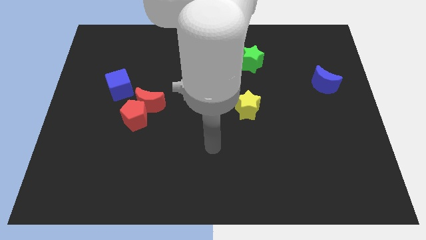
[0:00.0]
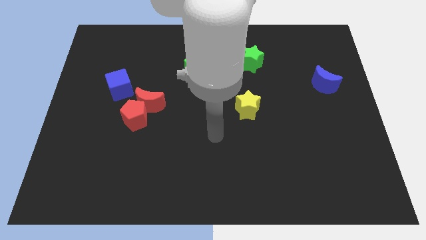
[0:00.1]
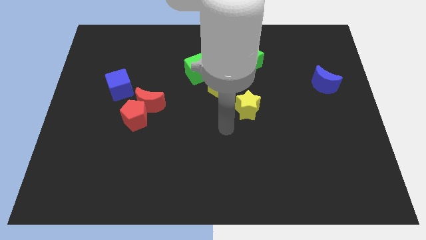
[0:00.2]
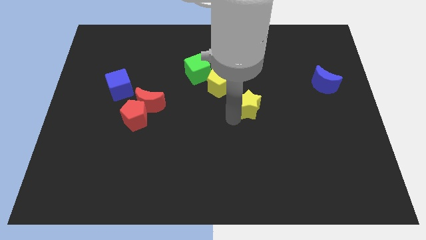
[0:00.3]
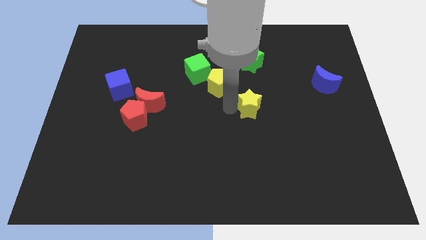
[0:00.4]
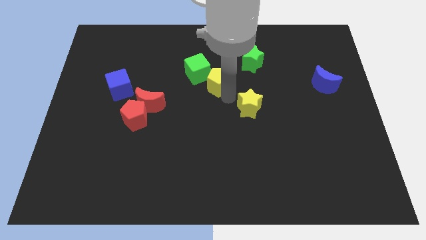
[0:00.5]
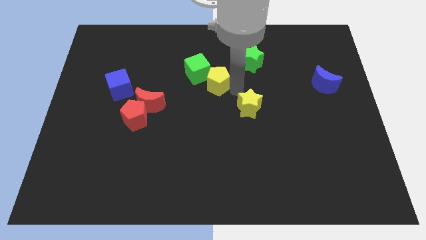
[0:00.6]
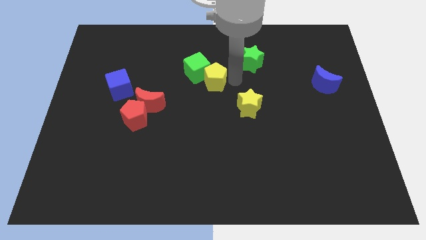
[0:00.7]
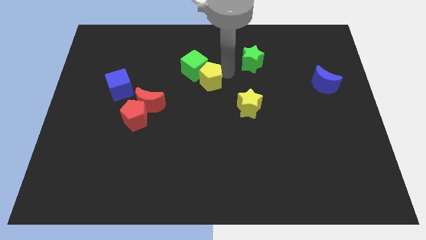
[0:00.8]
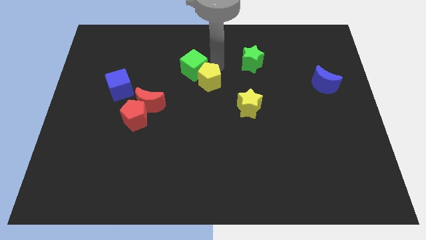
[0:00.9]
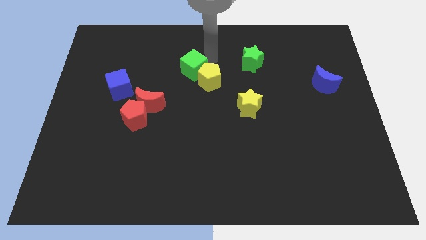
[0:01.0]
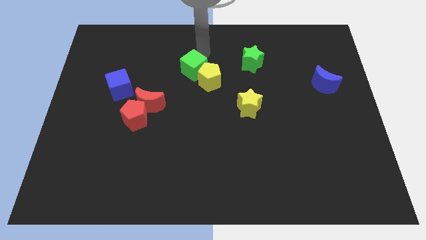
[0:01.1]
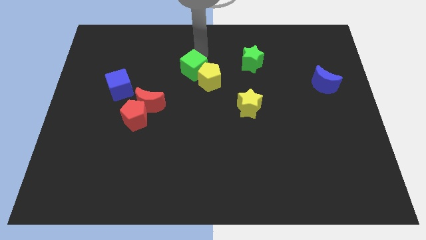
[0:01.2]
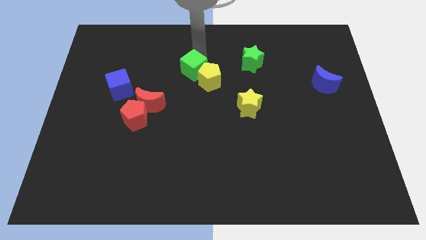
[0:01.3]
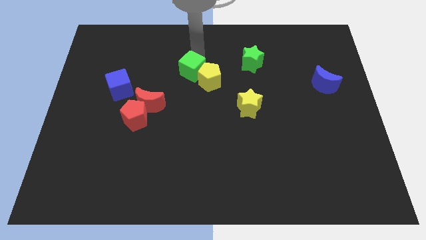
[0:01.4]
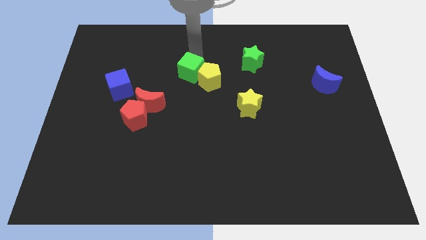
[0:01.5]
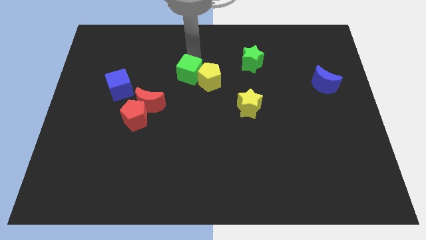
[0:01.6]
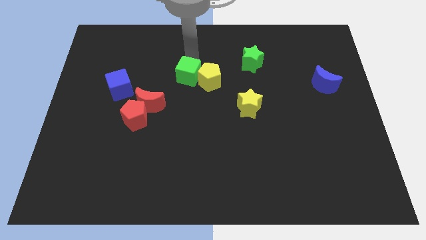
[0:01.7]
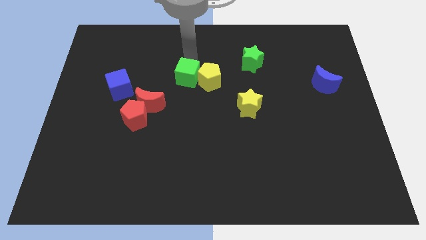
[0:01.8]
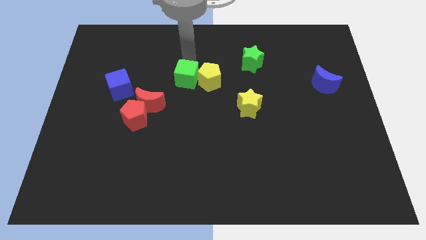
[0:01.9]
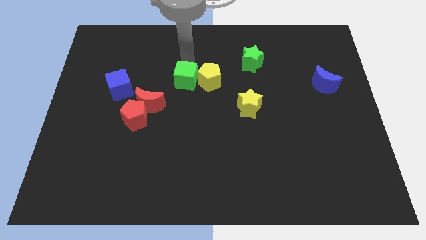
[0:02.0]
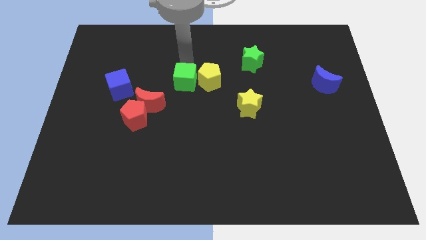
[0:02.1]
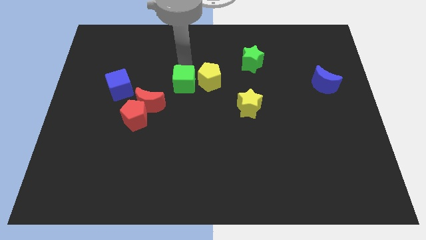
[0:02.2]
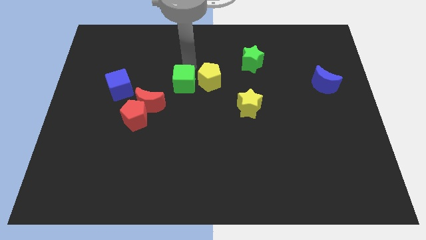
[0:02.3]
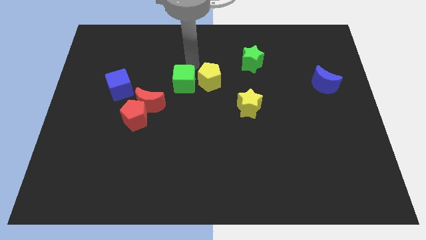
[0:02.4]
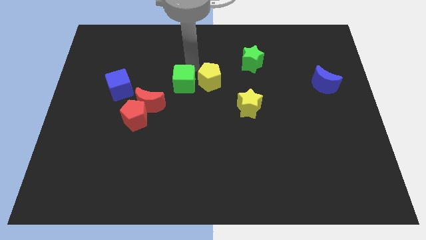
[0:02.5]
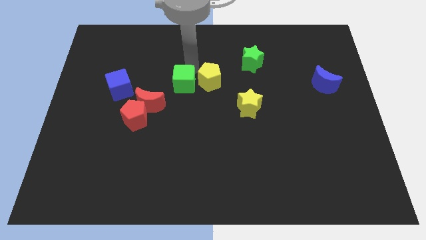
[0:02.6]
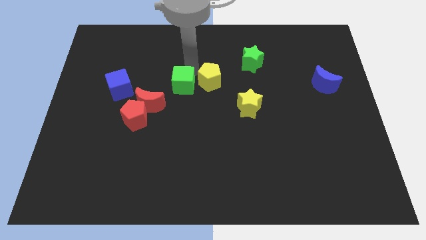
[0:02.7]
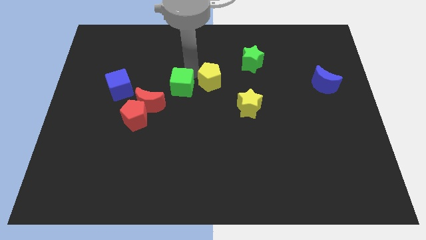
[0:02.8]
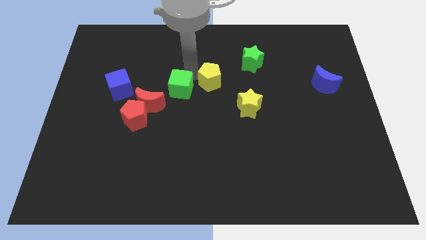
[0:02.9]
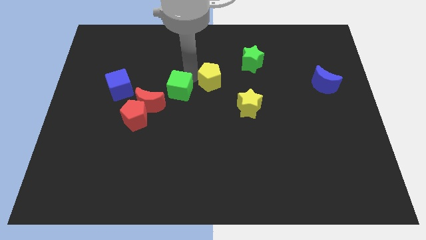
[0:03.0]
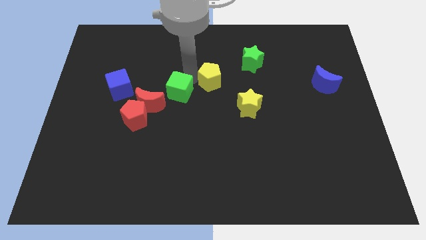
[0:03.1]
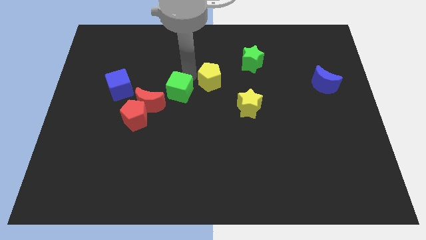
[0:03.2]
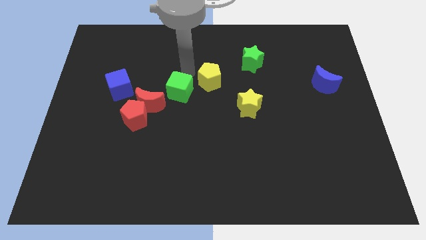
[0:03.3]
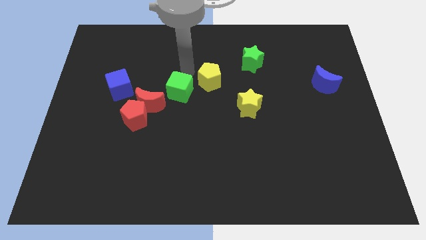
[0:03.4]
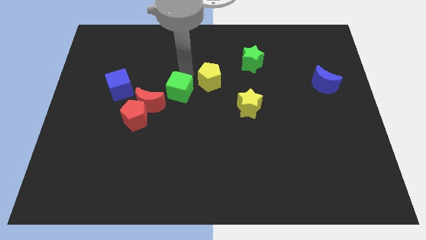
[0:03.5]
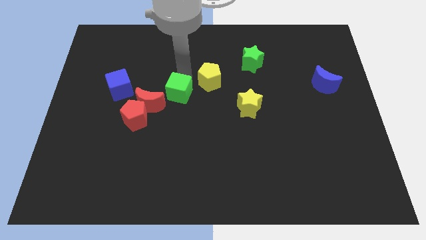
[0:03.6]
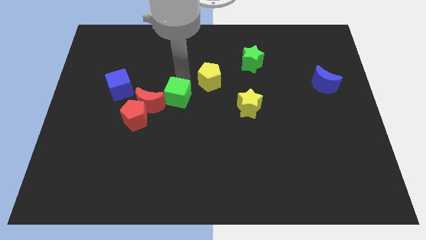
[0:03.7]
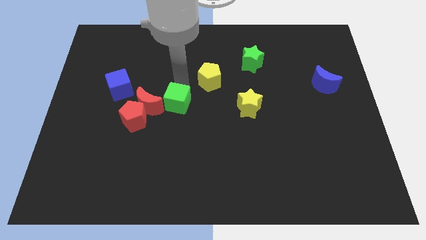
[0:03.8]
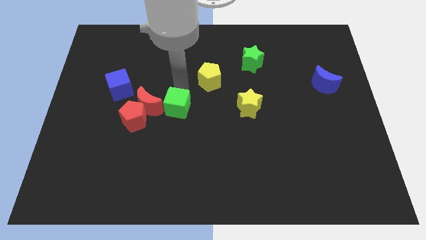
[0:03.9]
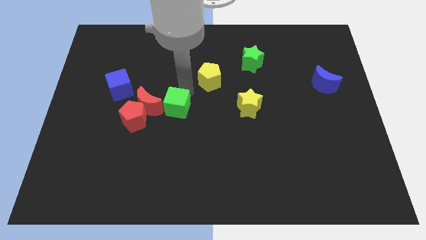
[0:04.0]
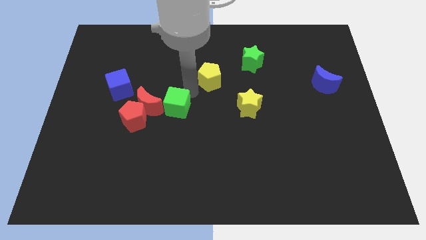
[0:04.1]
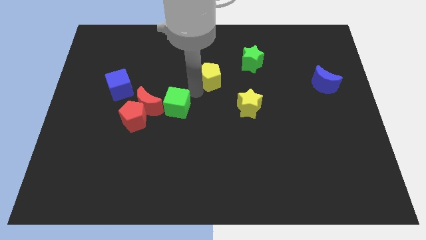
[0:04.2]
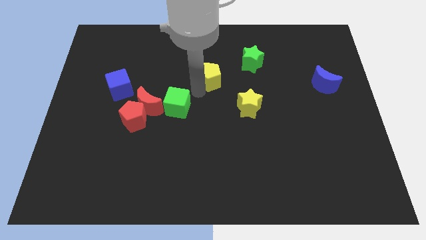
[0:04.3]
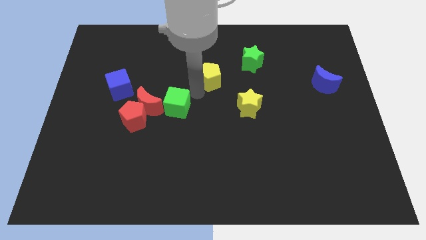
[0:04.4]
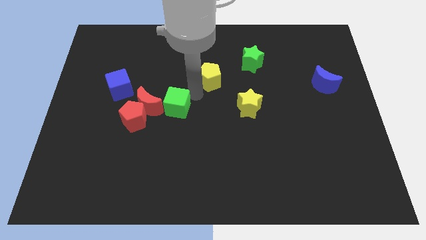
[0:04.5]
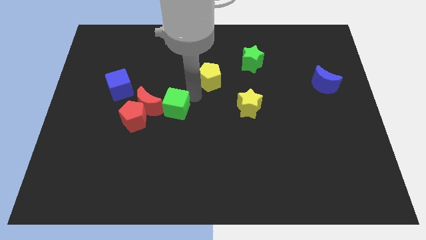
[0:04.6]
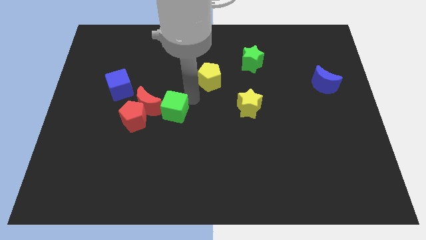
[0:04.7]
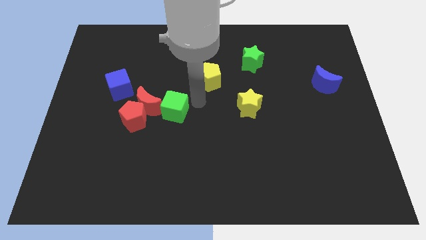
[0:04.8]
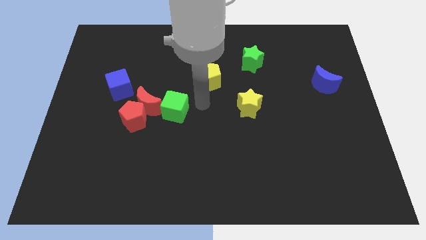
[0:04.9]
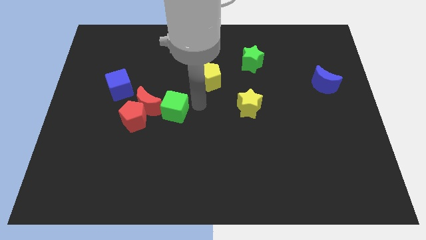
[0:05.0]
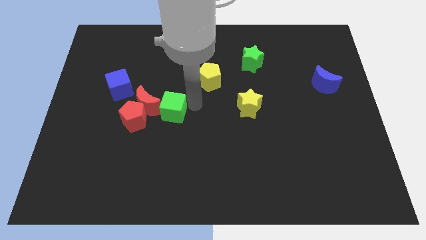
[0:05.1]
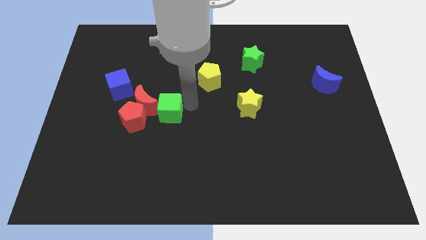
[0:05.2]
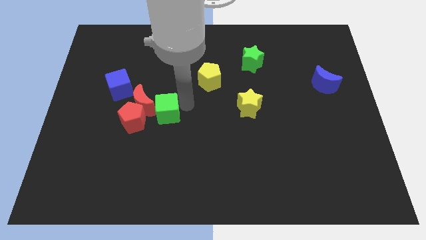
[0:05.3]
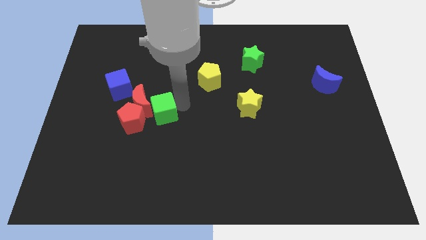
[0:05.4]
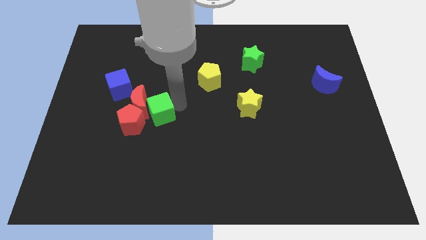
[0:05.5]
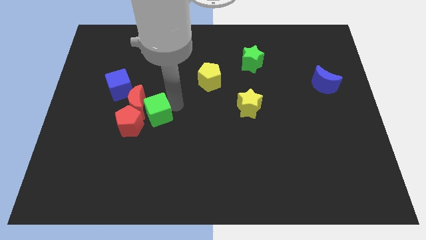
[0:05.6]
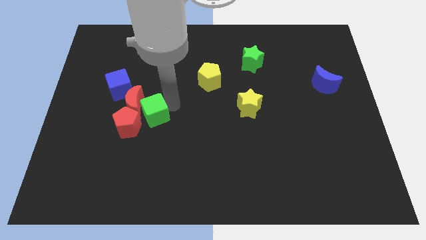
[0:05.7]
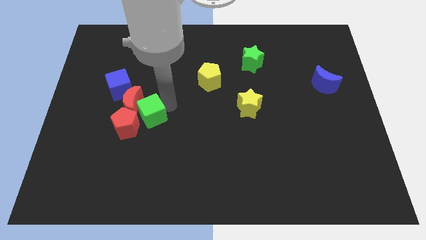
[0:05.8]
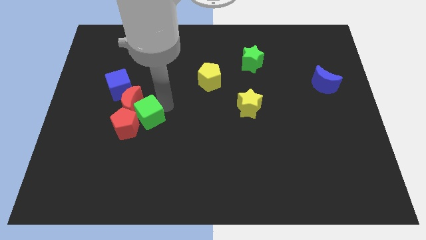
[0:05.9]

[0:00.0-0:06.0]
push the green cube towards the red pentagon
